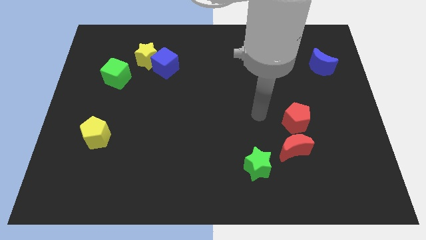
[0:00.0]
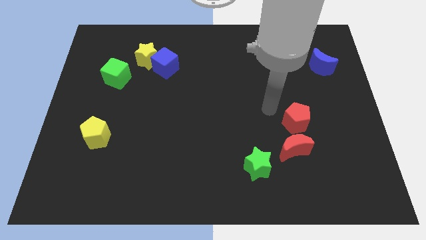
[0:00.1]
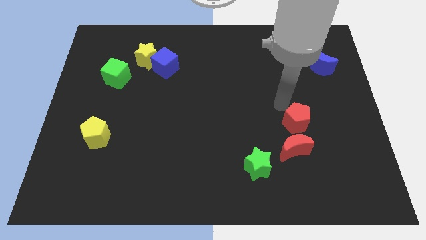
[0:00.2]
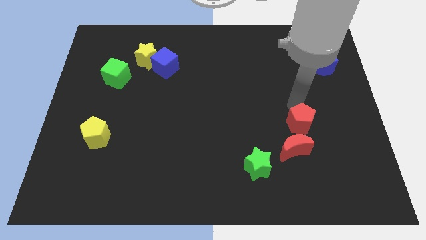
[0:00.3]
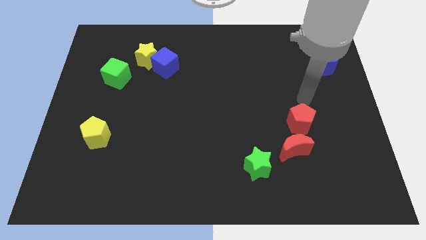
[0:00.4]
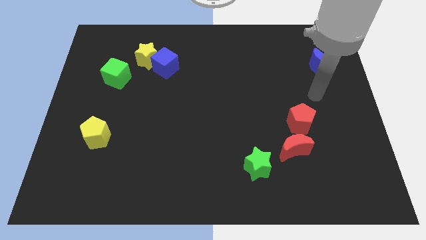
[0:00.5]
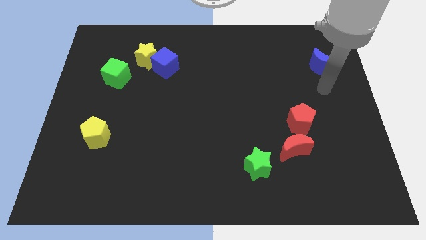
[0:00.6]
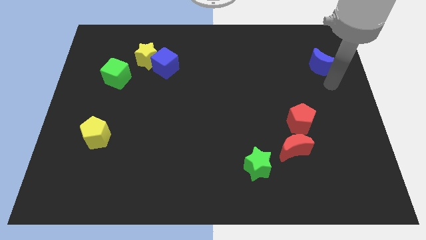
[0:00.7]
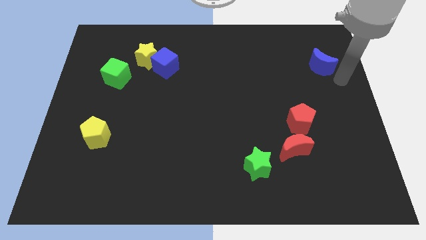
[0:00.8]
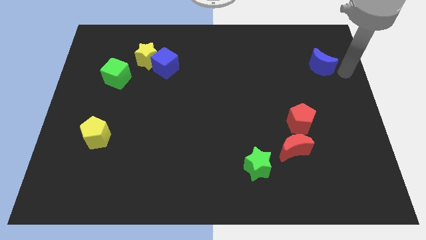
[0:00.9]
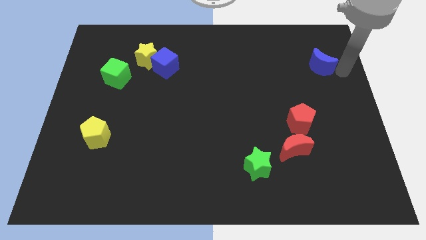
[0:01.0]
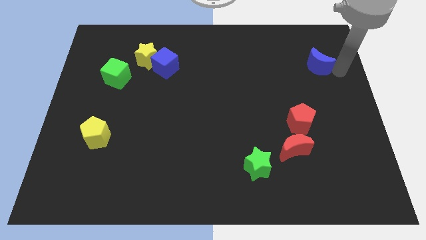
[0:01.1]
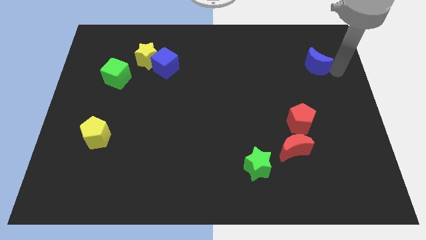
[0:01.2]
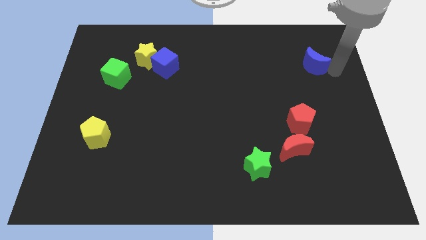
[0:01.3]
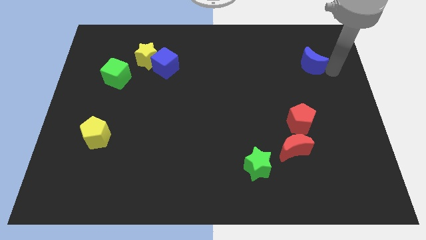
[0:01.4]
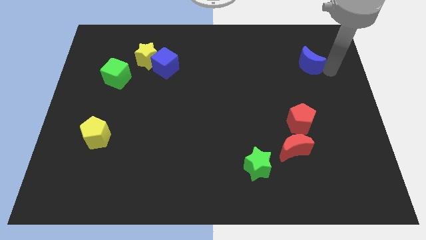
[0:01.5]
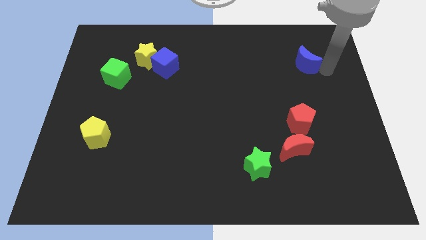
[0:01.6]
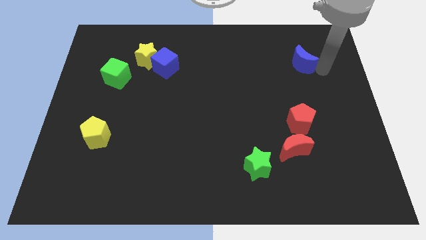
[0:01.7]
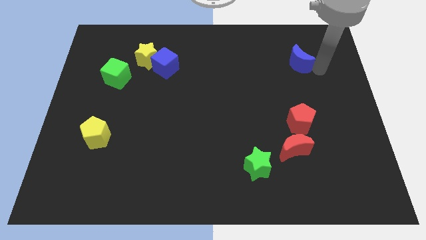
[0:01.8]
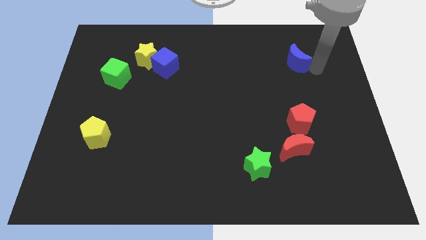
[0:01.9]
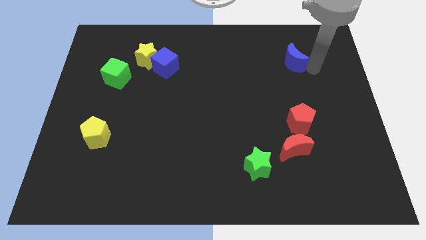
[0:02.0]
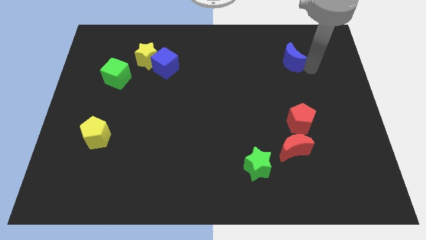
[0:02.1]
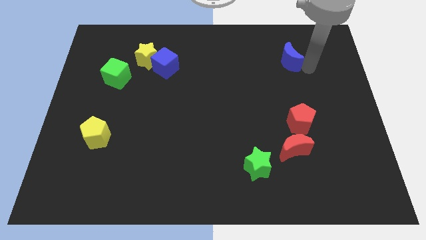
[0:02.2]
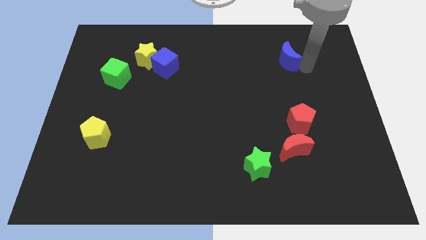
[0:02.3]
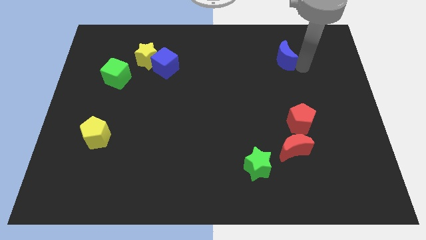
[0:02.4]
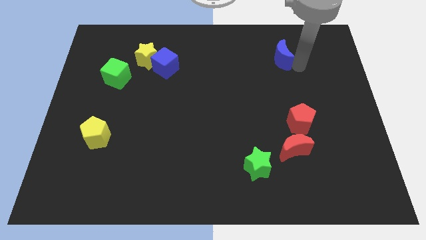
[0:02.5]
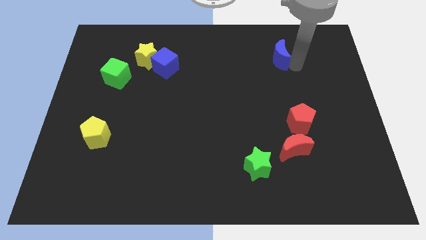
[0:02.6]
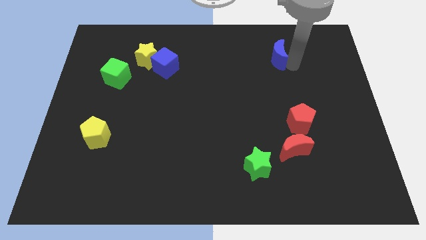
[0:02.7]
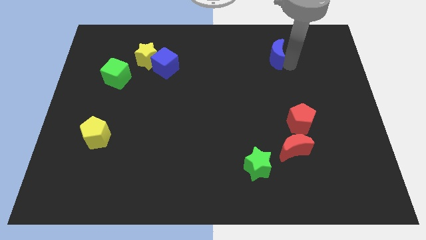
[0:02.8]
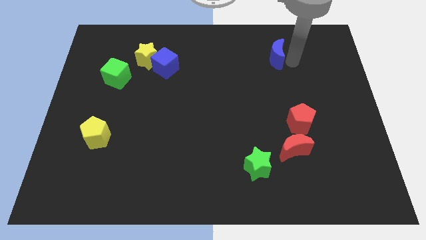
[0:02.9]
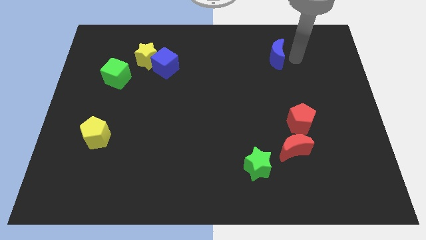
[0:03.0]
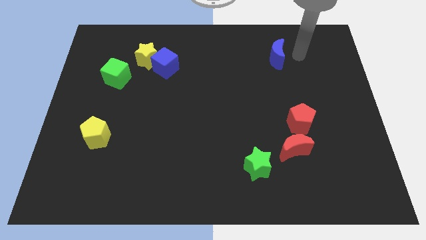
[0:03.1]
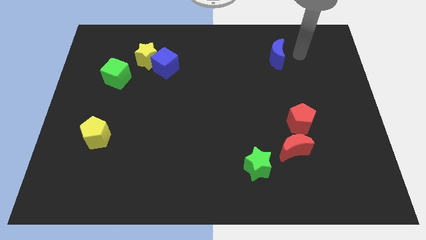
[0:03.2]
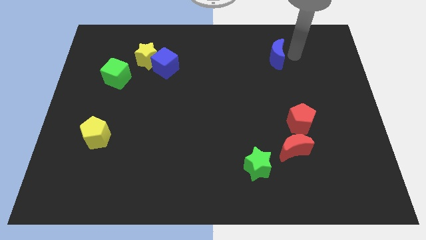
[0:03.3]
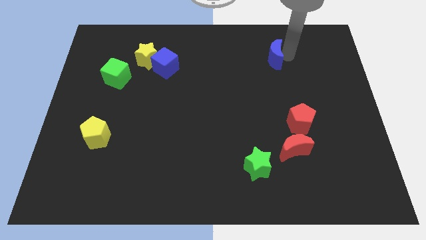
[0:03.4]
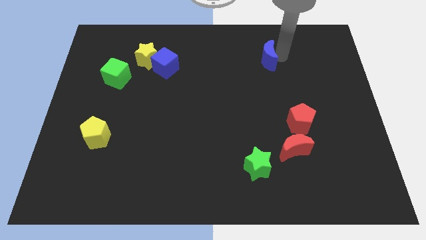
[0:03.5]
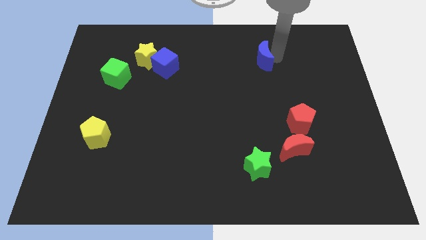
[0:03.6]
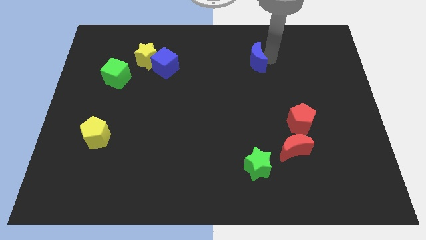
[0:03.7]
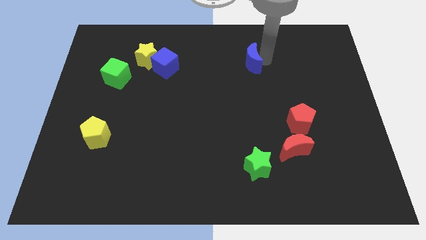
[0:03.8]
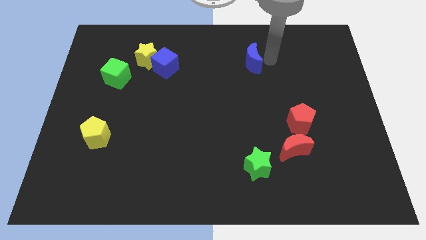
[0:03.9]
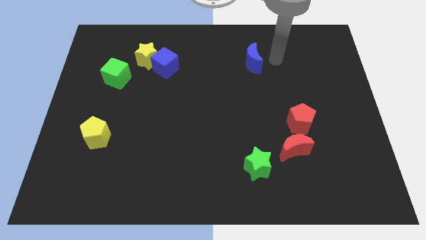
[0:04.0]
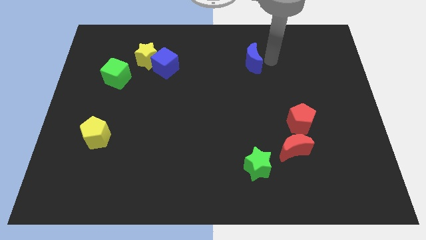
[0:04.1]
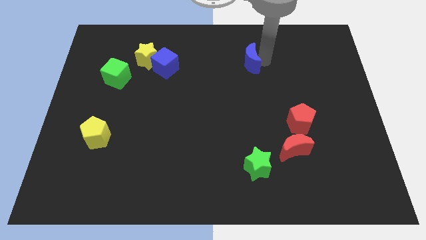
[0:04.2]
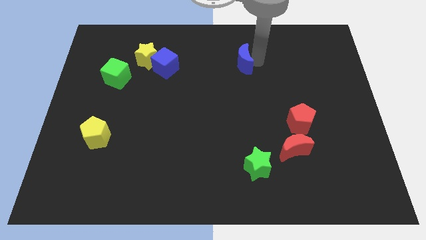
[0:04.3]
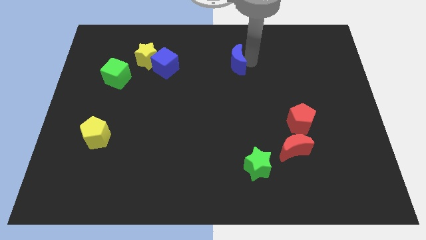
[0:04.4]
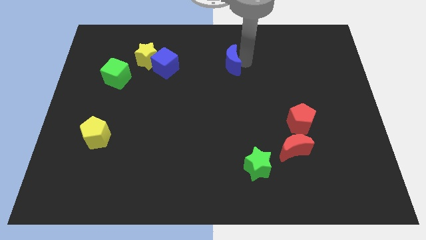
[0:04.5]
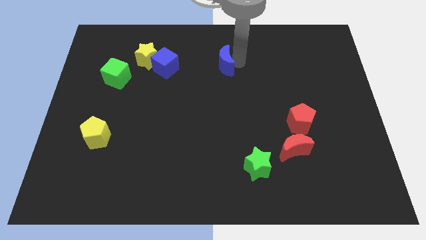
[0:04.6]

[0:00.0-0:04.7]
slide the blue moon right of the blue cube

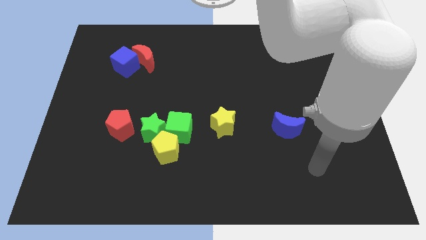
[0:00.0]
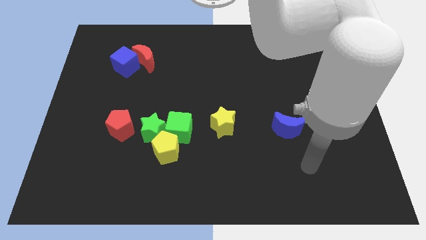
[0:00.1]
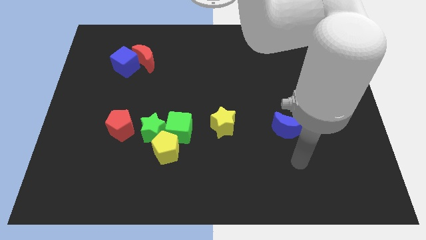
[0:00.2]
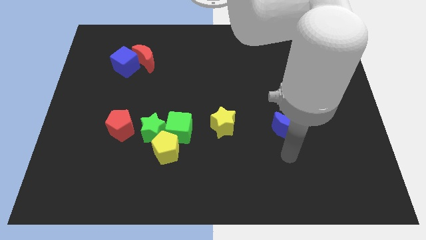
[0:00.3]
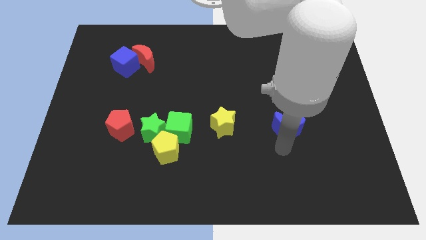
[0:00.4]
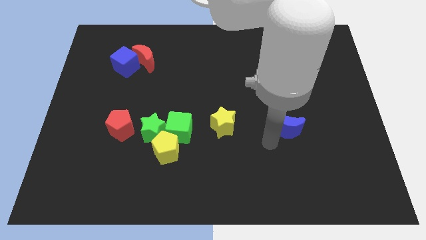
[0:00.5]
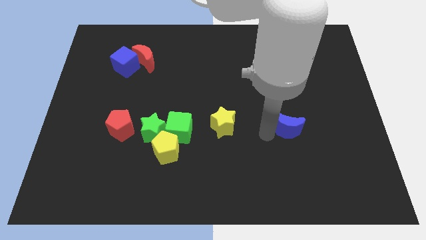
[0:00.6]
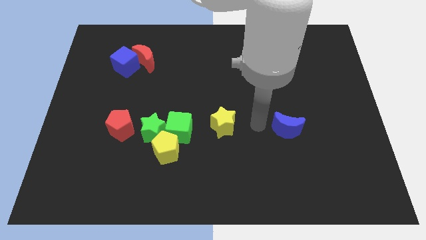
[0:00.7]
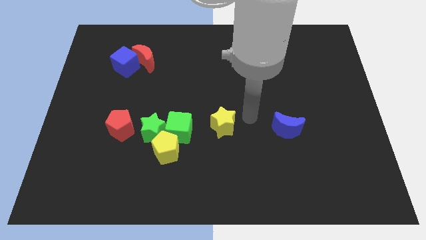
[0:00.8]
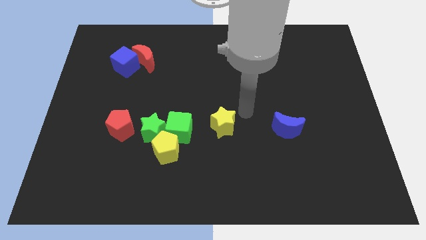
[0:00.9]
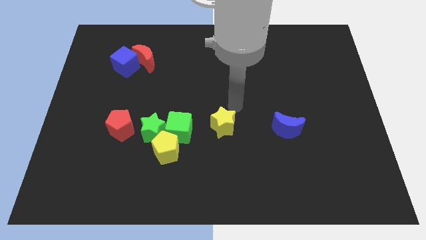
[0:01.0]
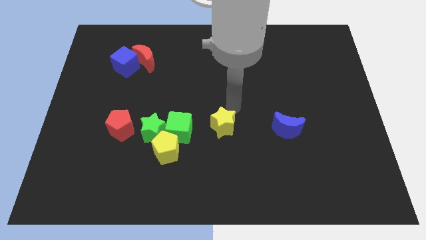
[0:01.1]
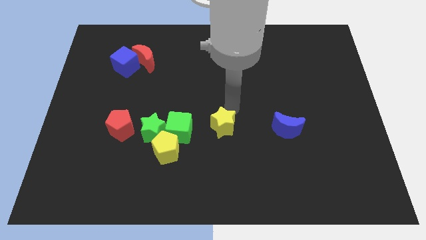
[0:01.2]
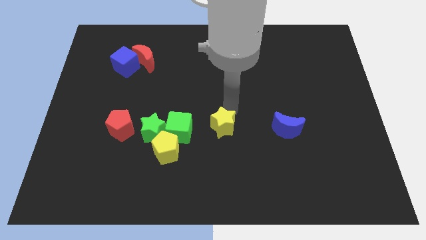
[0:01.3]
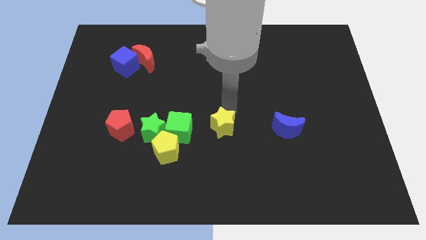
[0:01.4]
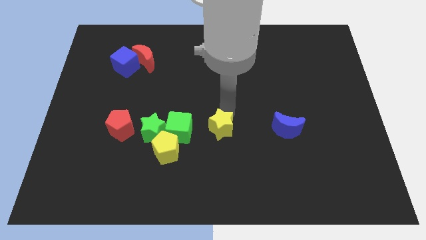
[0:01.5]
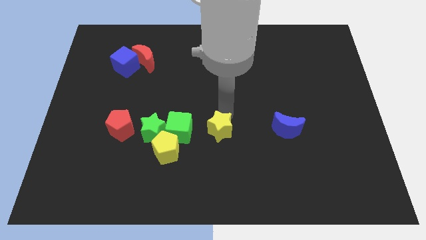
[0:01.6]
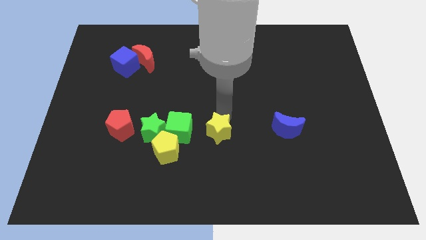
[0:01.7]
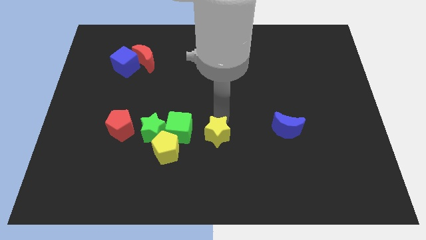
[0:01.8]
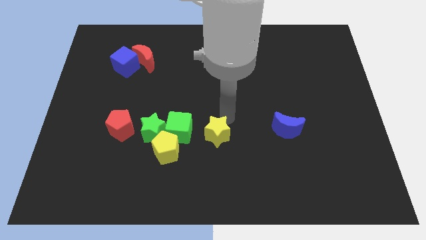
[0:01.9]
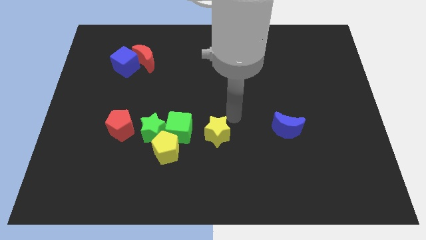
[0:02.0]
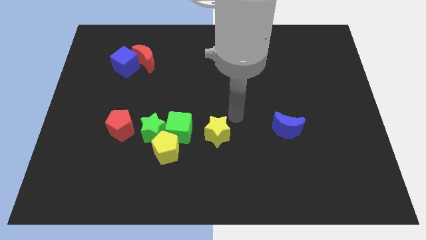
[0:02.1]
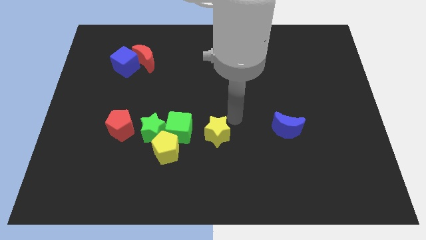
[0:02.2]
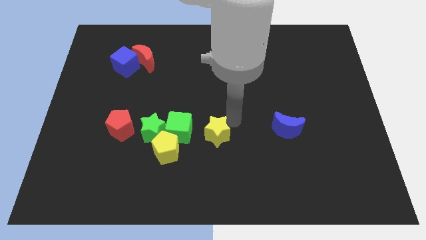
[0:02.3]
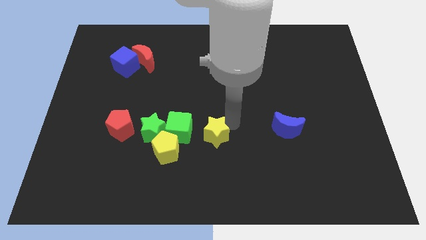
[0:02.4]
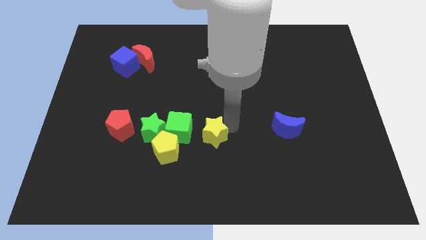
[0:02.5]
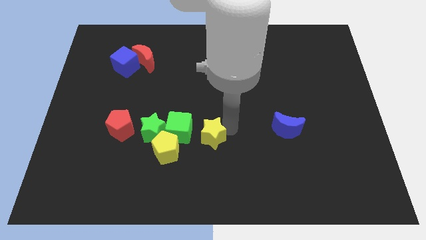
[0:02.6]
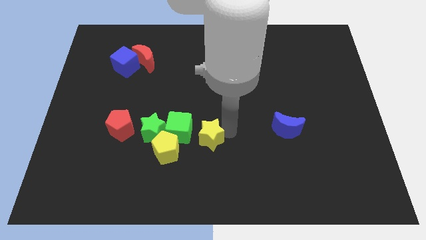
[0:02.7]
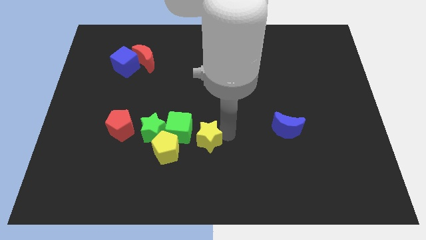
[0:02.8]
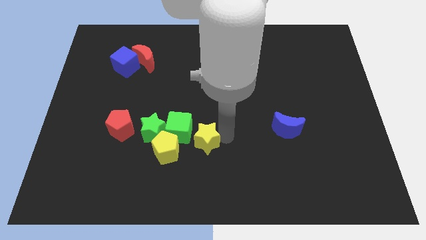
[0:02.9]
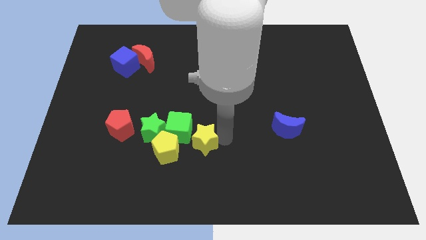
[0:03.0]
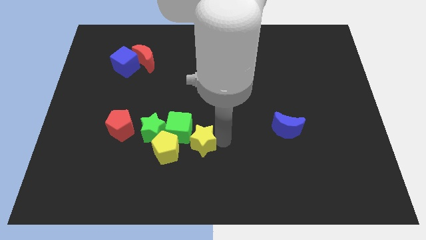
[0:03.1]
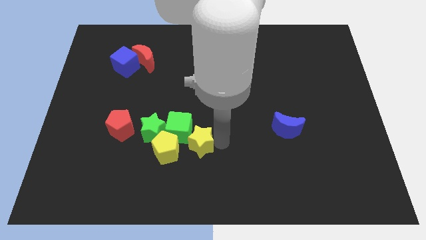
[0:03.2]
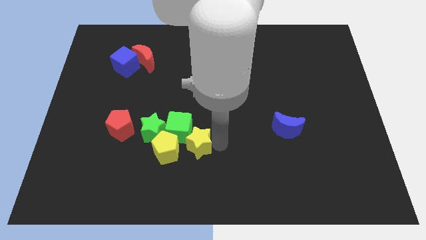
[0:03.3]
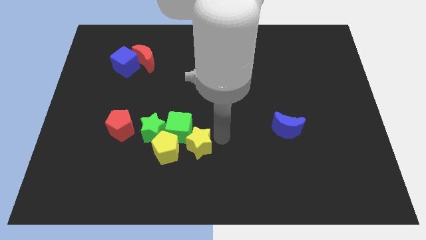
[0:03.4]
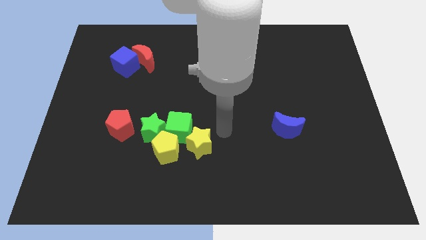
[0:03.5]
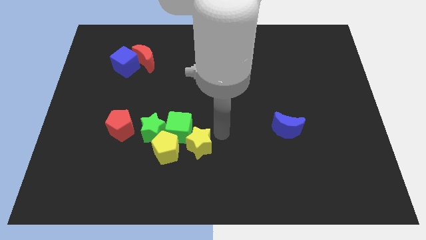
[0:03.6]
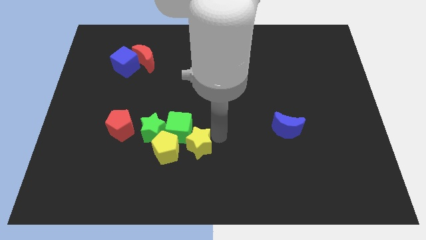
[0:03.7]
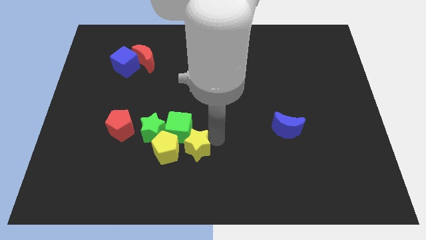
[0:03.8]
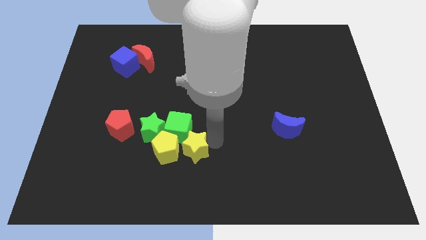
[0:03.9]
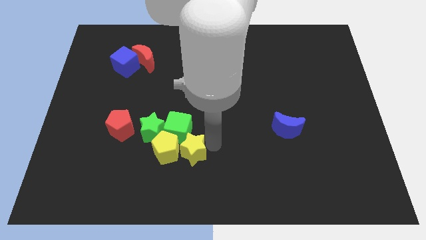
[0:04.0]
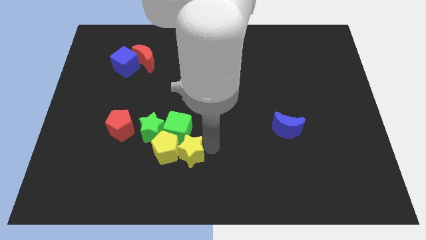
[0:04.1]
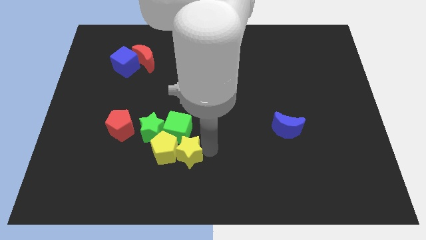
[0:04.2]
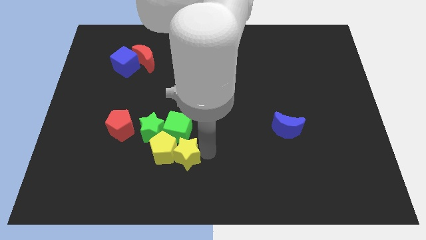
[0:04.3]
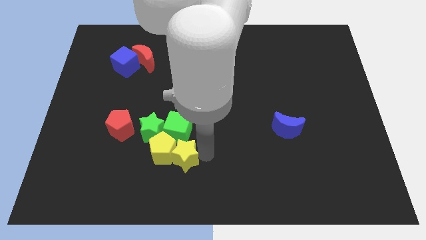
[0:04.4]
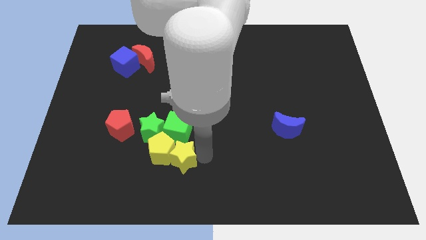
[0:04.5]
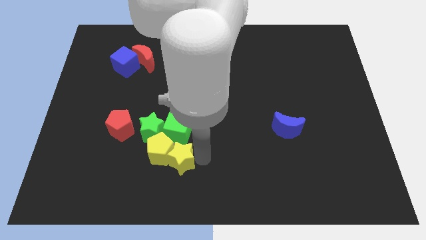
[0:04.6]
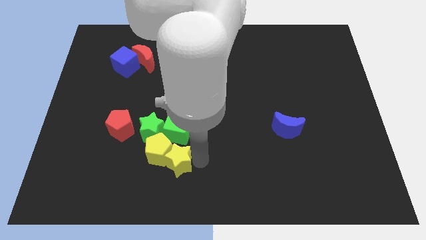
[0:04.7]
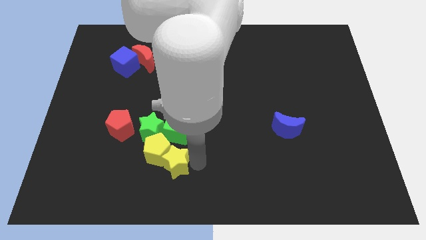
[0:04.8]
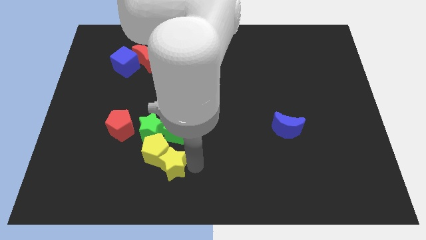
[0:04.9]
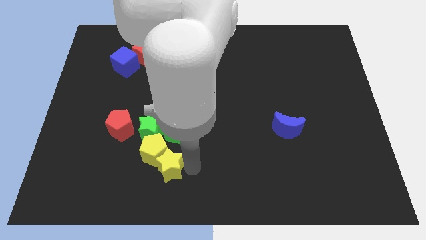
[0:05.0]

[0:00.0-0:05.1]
slide the yellow star below the green star
